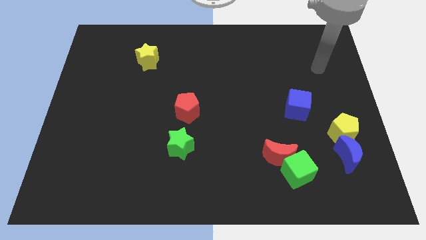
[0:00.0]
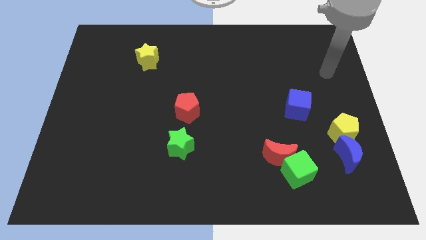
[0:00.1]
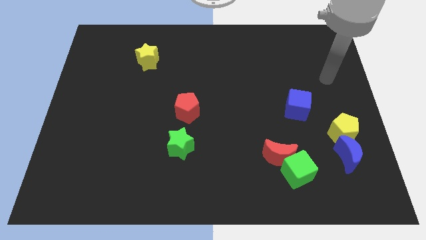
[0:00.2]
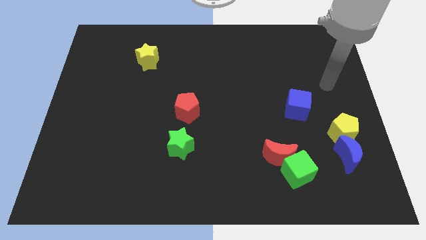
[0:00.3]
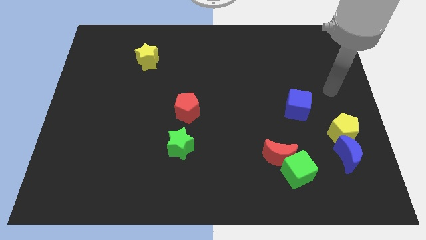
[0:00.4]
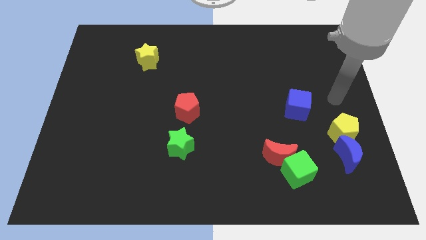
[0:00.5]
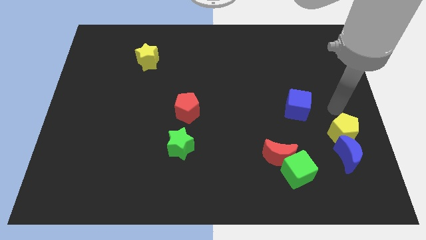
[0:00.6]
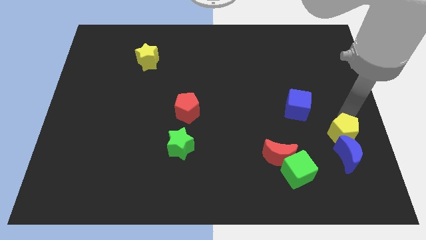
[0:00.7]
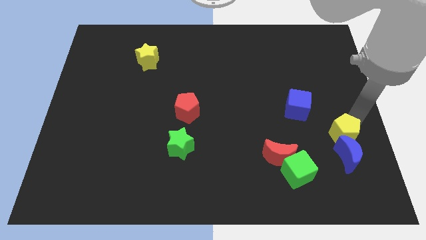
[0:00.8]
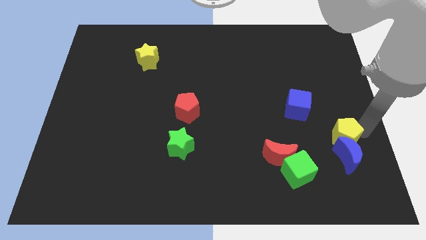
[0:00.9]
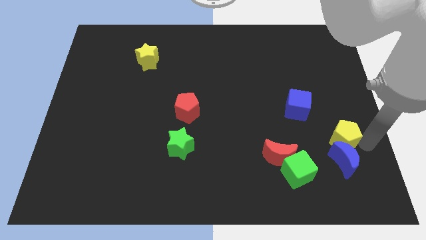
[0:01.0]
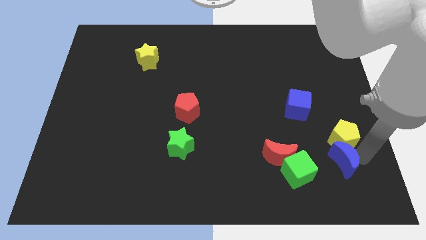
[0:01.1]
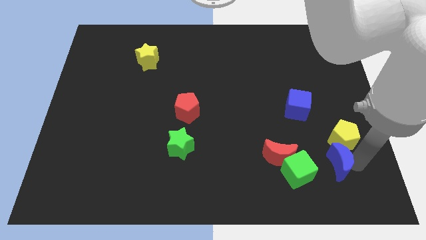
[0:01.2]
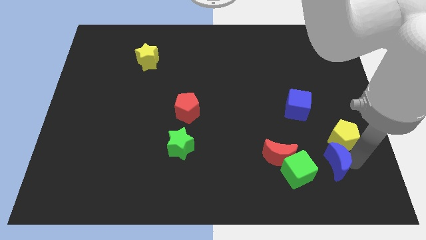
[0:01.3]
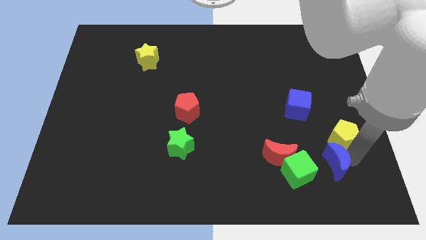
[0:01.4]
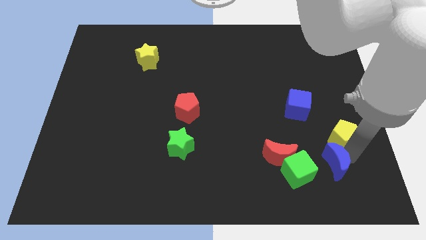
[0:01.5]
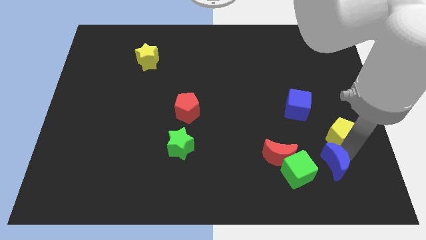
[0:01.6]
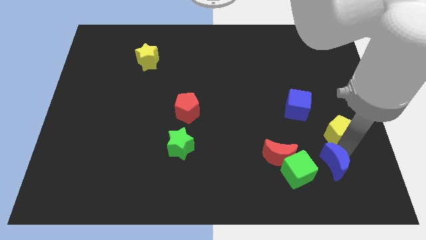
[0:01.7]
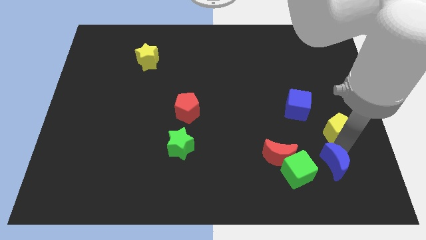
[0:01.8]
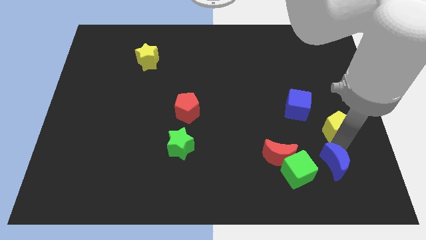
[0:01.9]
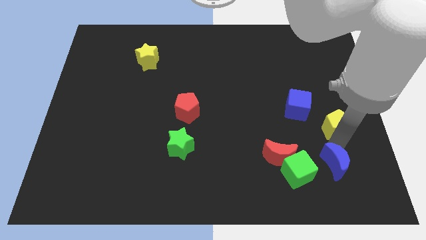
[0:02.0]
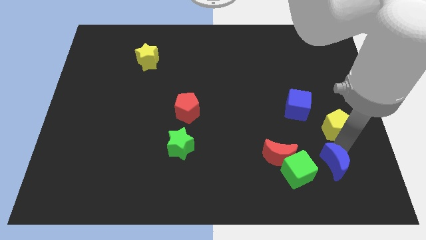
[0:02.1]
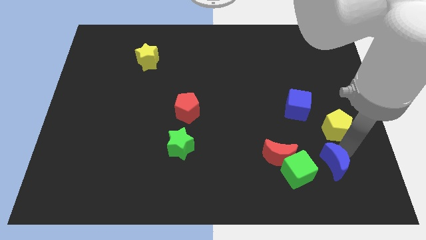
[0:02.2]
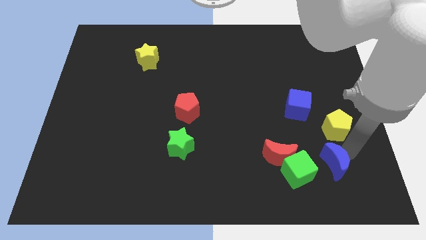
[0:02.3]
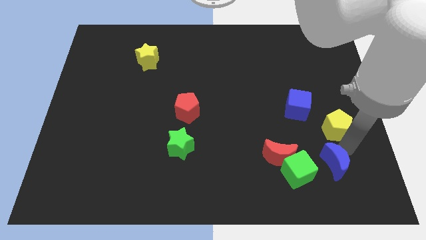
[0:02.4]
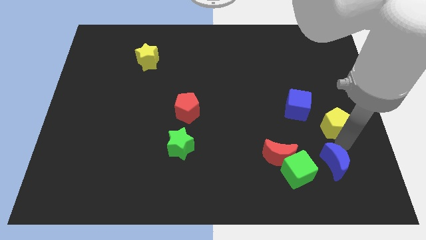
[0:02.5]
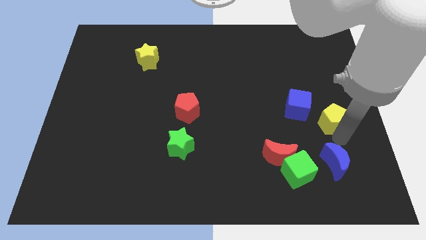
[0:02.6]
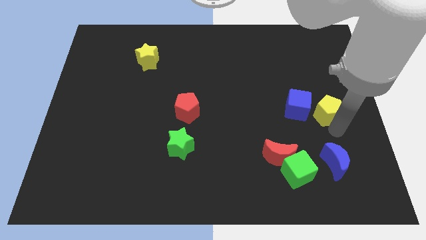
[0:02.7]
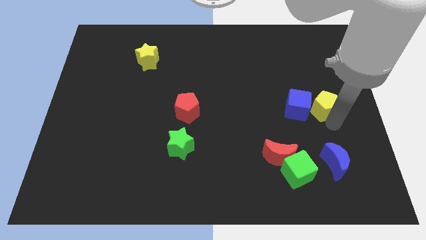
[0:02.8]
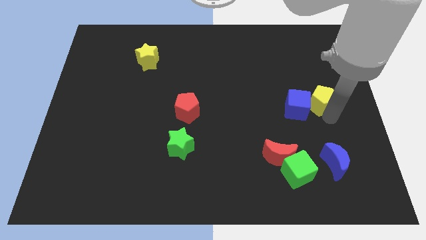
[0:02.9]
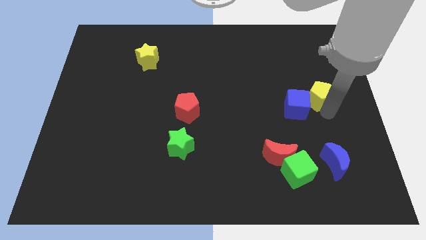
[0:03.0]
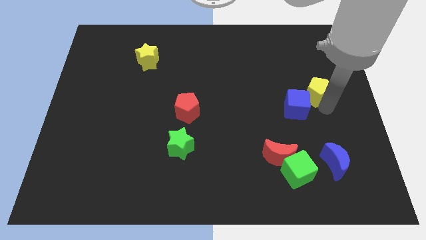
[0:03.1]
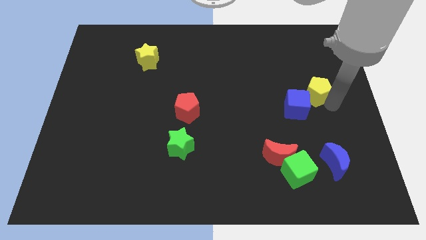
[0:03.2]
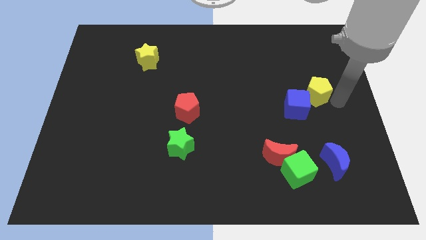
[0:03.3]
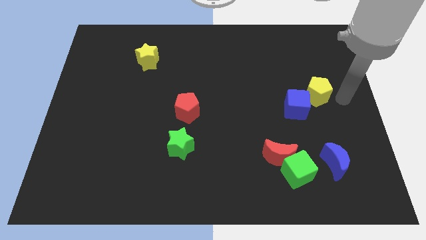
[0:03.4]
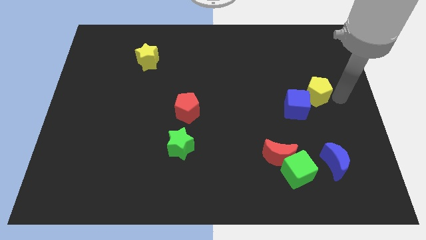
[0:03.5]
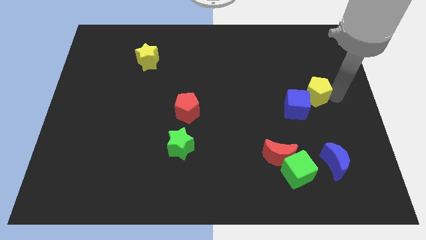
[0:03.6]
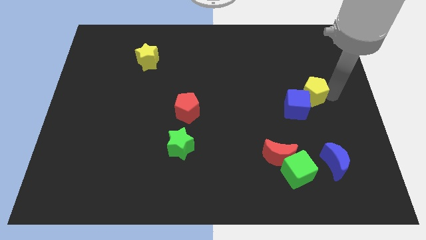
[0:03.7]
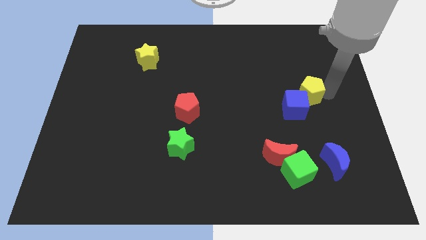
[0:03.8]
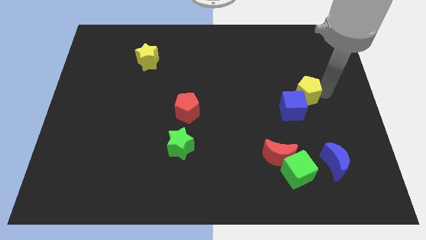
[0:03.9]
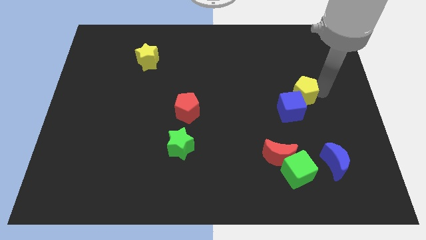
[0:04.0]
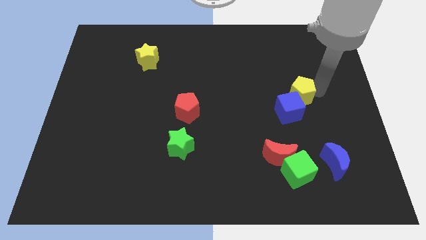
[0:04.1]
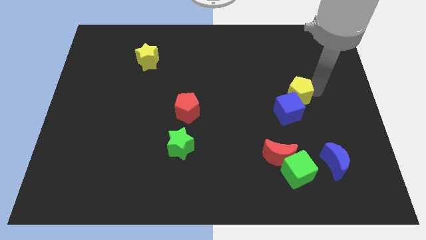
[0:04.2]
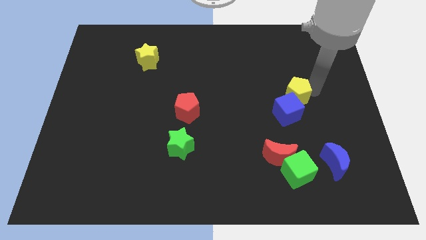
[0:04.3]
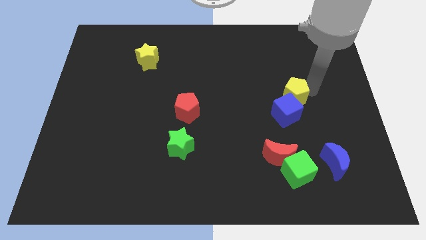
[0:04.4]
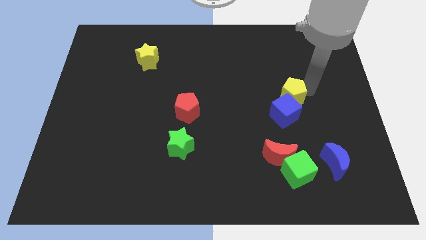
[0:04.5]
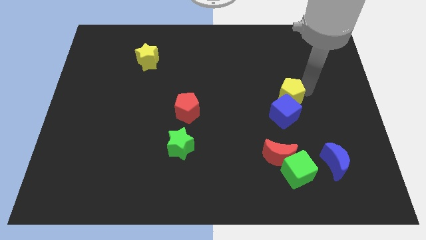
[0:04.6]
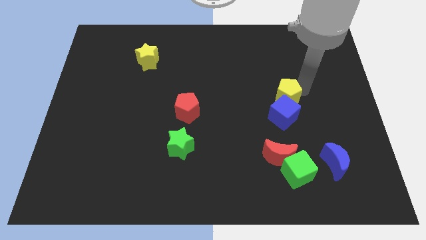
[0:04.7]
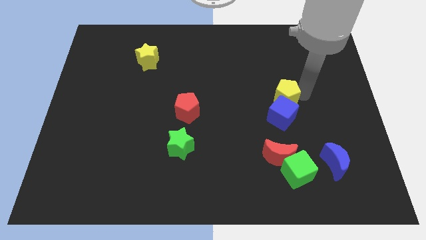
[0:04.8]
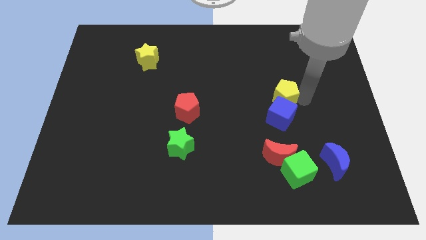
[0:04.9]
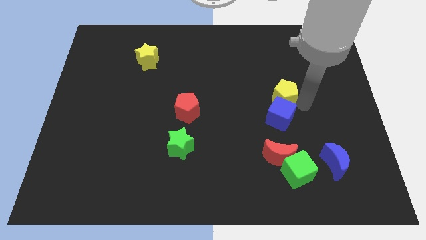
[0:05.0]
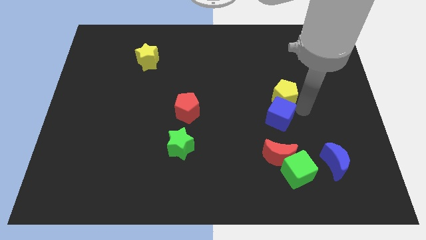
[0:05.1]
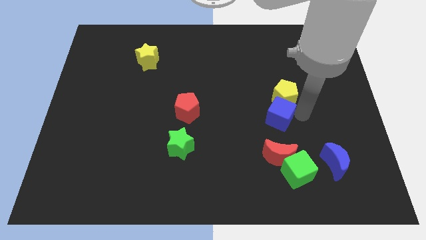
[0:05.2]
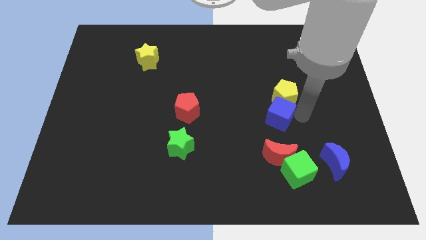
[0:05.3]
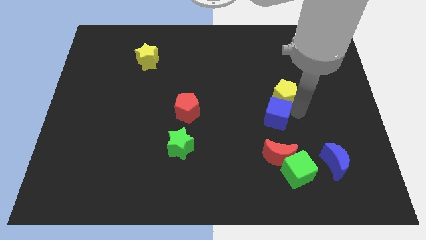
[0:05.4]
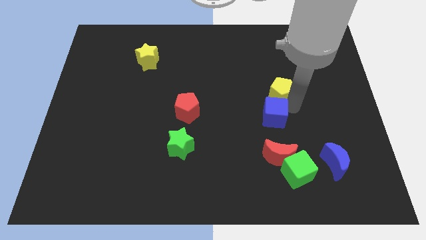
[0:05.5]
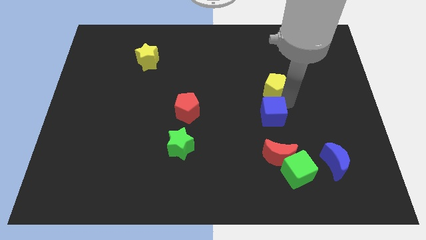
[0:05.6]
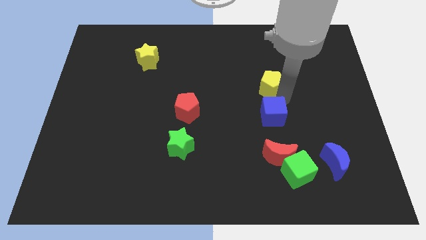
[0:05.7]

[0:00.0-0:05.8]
push the yellow pentagon upwards and left diagonally

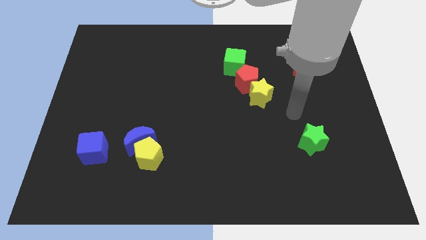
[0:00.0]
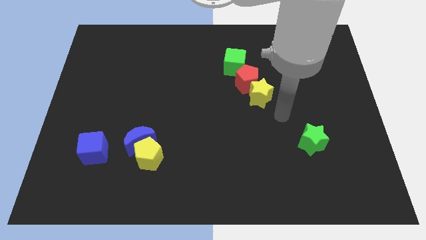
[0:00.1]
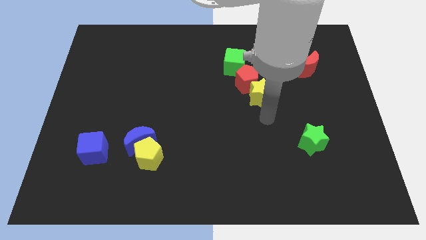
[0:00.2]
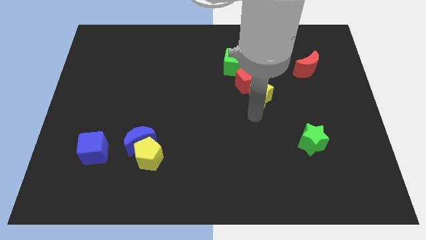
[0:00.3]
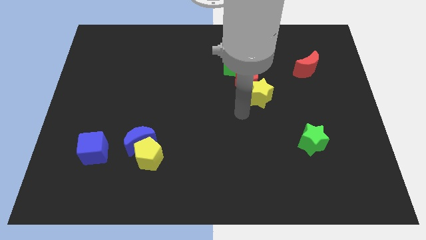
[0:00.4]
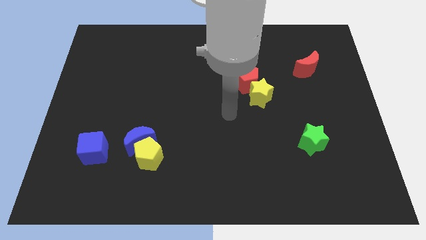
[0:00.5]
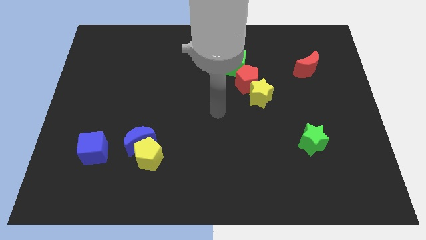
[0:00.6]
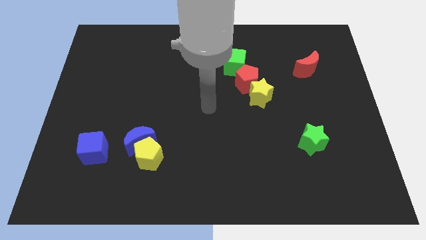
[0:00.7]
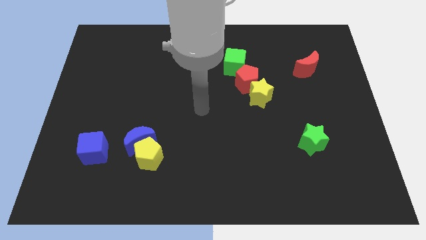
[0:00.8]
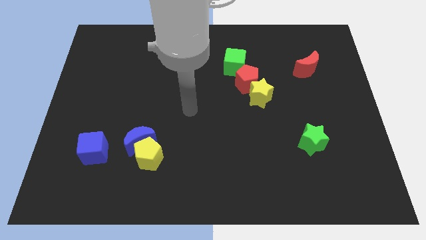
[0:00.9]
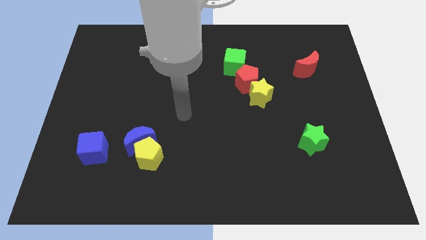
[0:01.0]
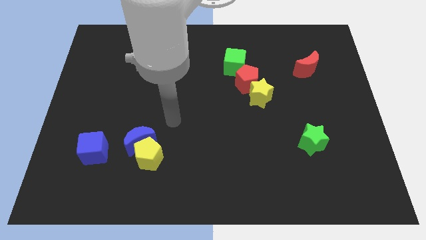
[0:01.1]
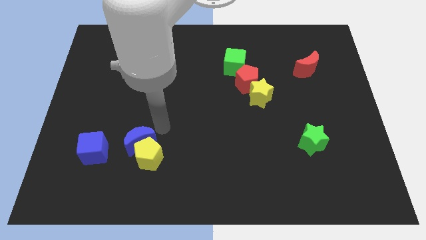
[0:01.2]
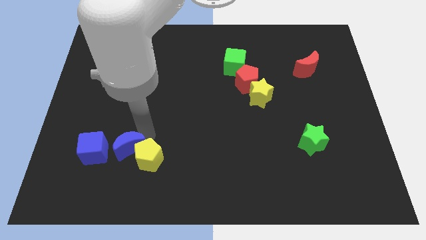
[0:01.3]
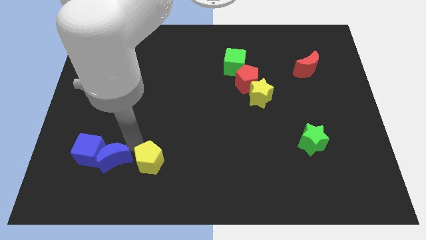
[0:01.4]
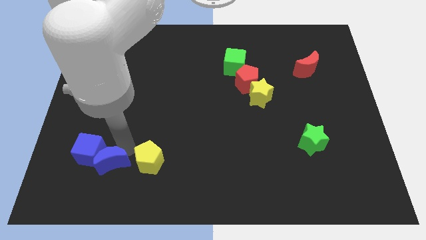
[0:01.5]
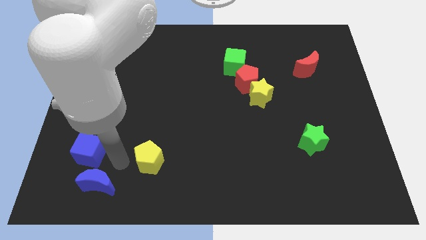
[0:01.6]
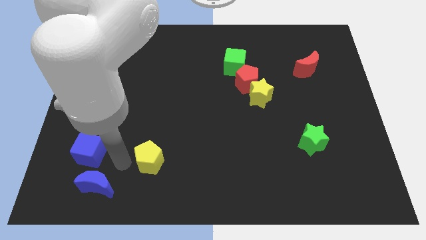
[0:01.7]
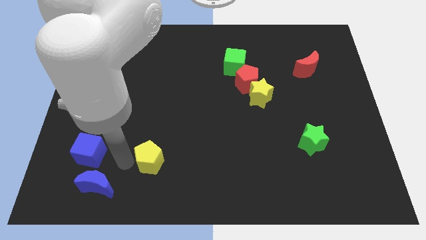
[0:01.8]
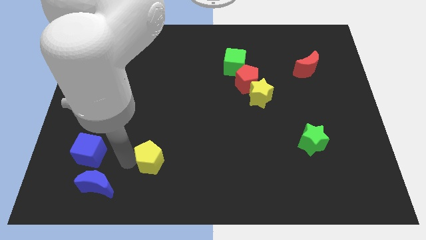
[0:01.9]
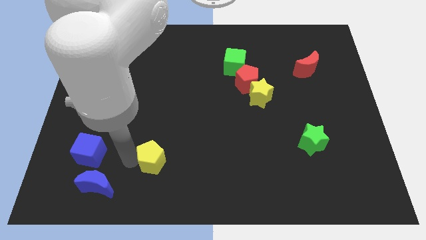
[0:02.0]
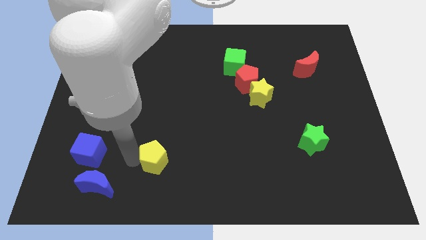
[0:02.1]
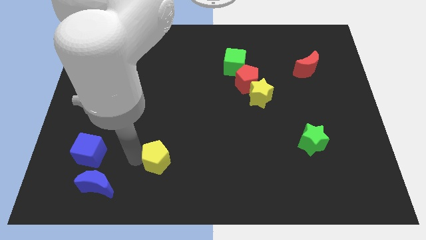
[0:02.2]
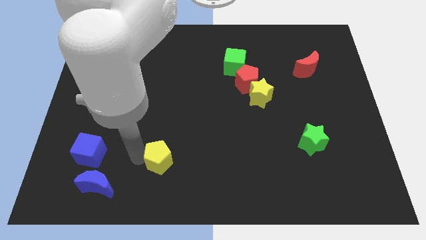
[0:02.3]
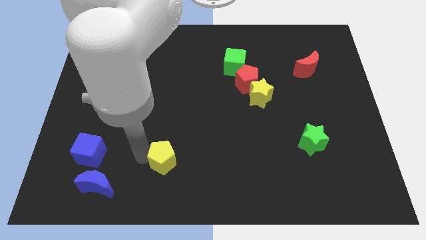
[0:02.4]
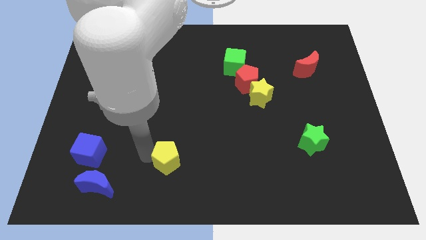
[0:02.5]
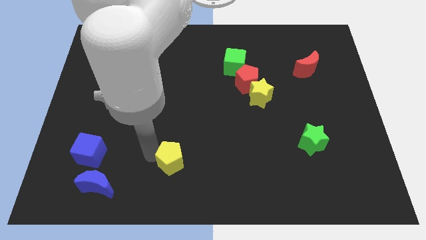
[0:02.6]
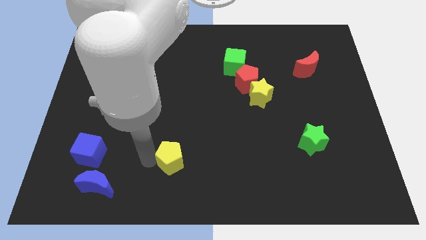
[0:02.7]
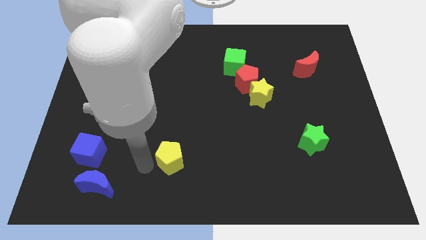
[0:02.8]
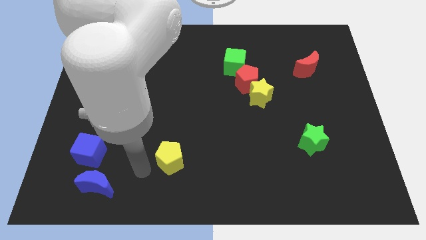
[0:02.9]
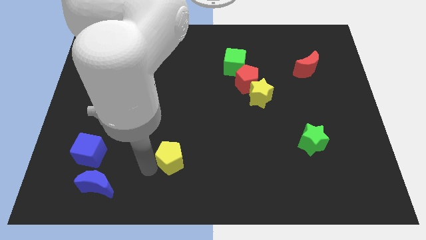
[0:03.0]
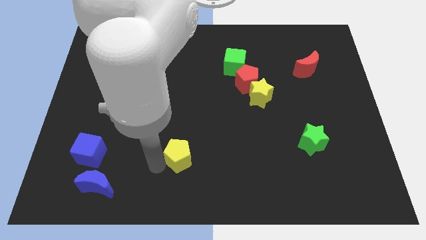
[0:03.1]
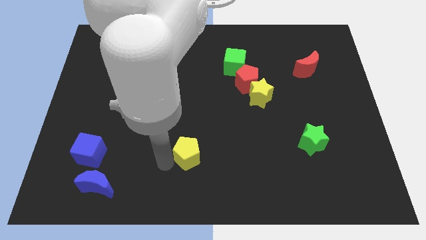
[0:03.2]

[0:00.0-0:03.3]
slightly slide the yellow pentagon right
